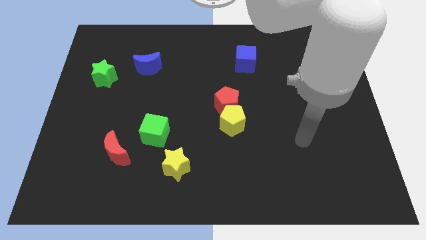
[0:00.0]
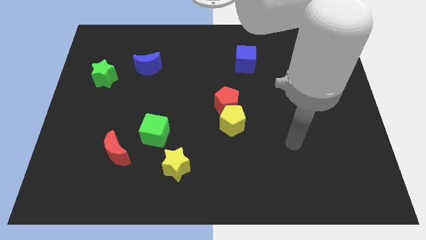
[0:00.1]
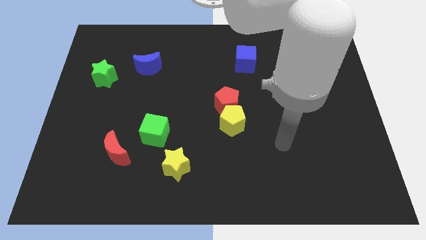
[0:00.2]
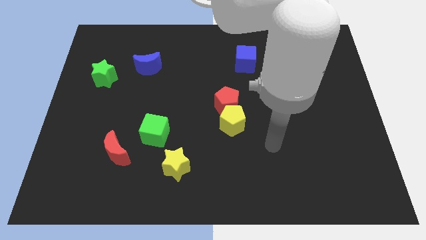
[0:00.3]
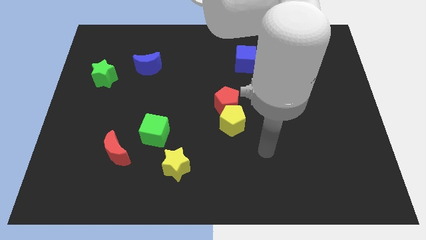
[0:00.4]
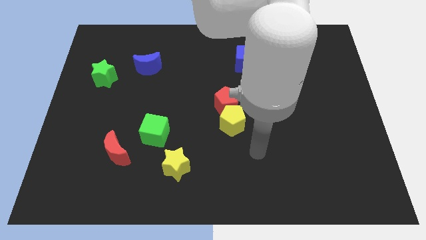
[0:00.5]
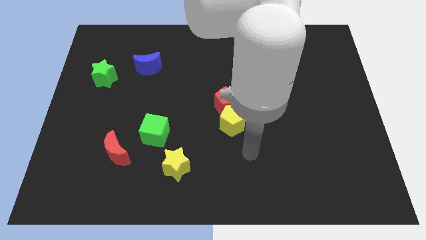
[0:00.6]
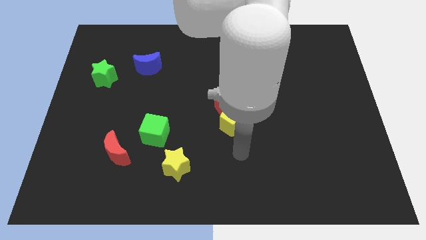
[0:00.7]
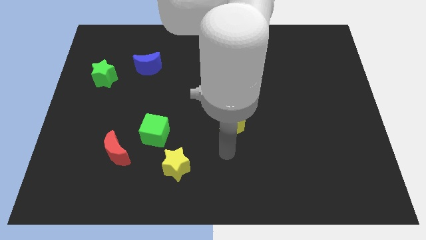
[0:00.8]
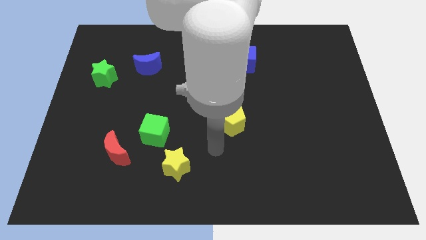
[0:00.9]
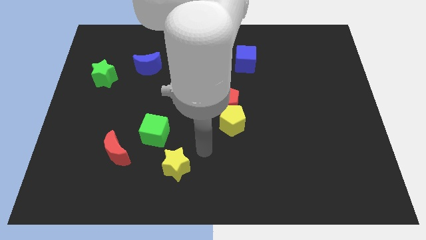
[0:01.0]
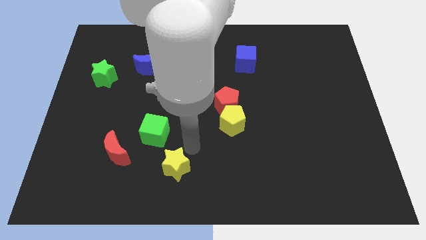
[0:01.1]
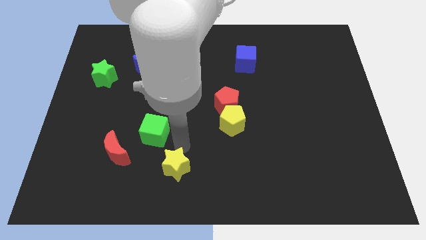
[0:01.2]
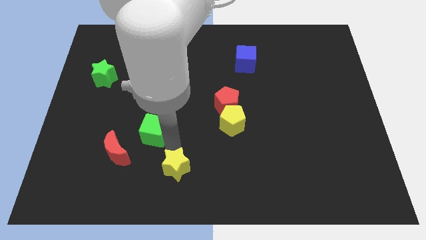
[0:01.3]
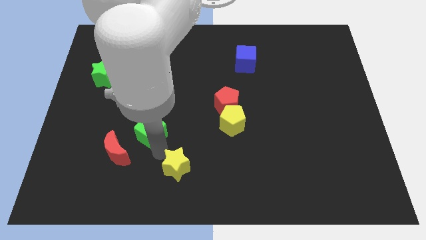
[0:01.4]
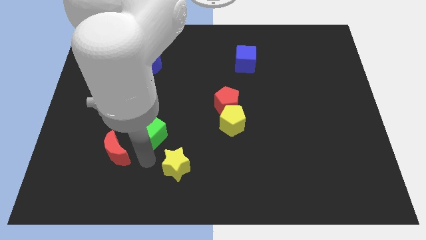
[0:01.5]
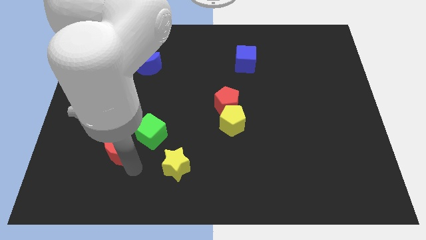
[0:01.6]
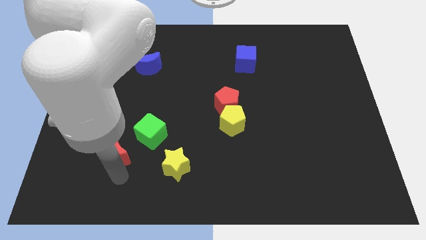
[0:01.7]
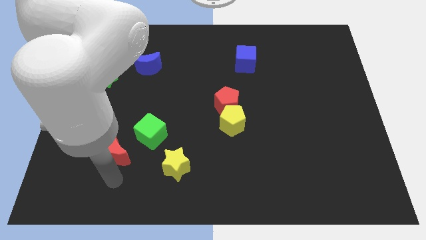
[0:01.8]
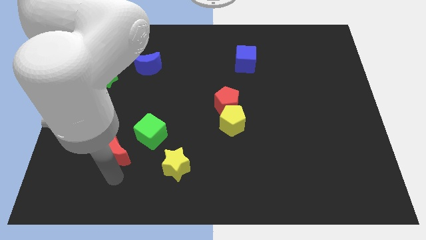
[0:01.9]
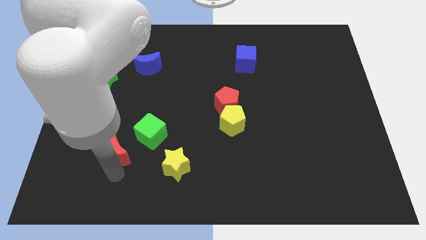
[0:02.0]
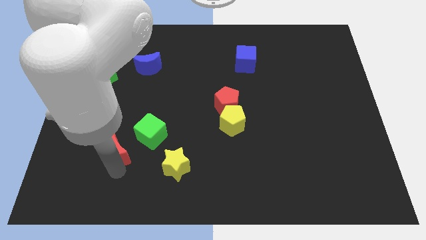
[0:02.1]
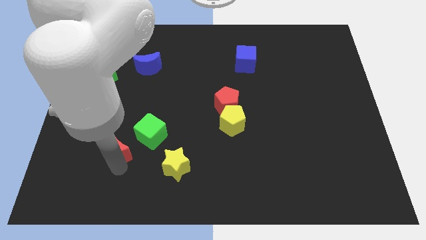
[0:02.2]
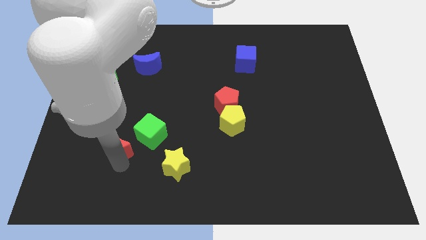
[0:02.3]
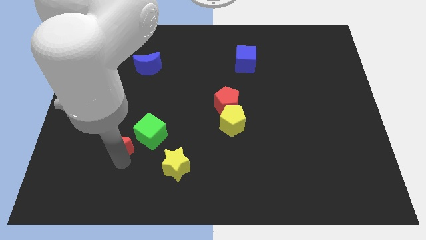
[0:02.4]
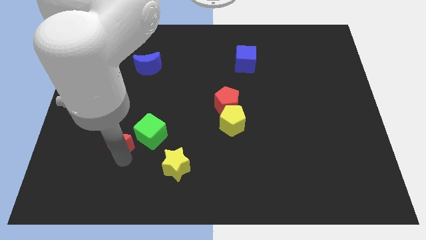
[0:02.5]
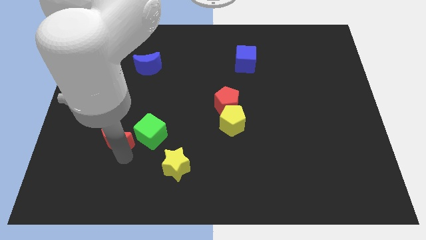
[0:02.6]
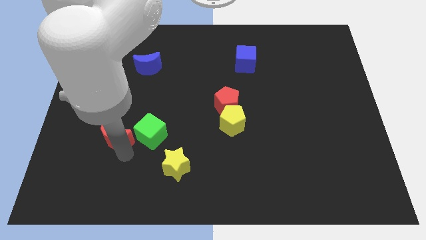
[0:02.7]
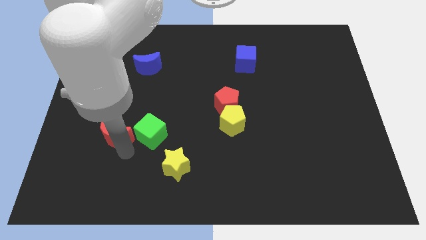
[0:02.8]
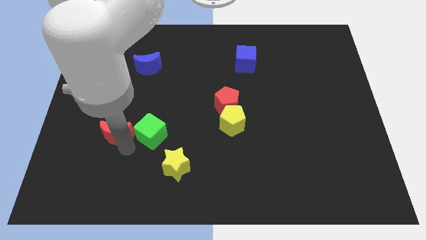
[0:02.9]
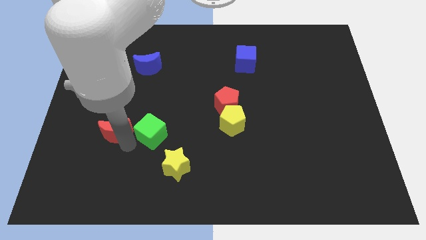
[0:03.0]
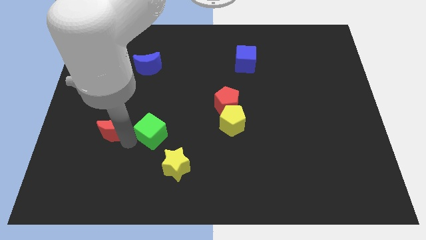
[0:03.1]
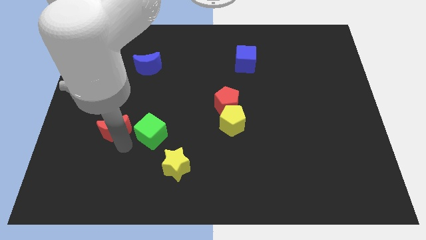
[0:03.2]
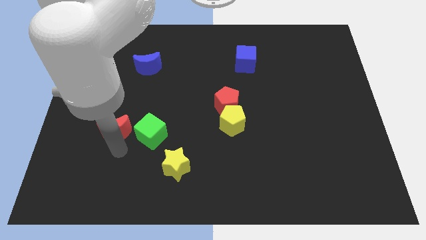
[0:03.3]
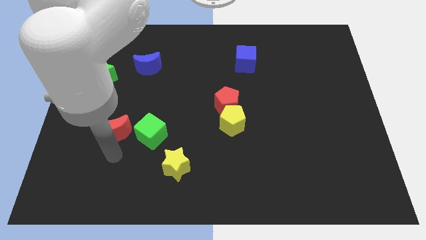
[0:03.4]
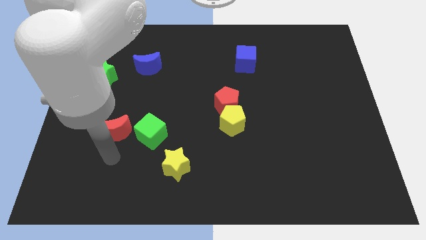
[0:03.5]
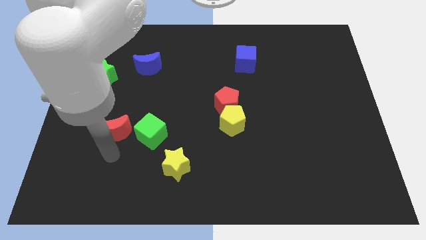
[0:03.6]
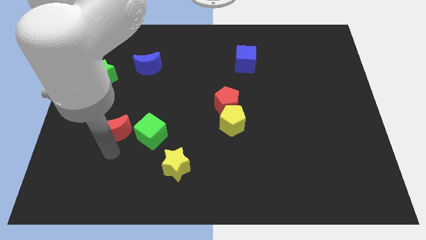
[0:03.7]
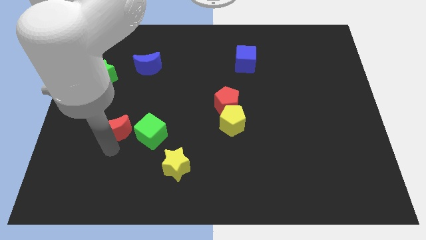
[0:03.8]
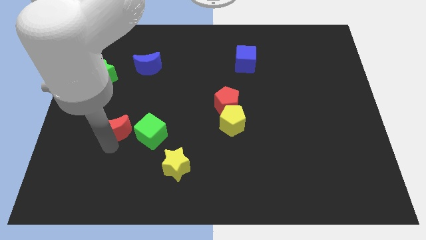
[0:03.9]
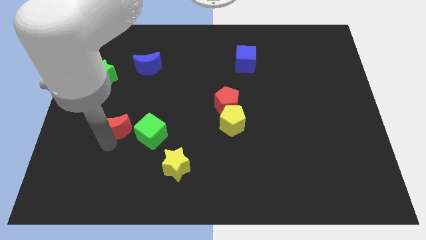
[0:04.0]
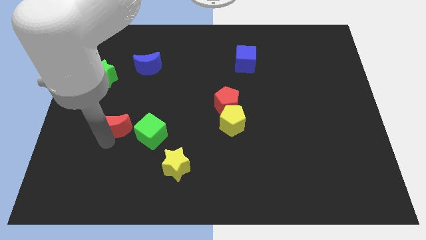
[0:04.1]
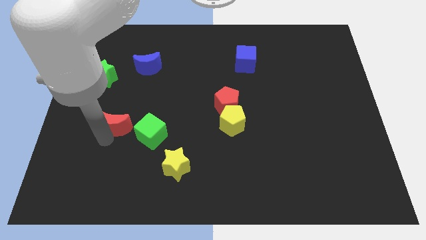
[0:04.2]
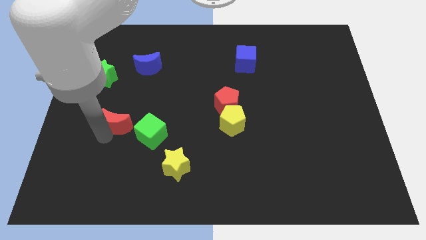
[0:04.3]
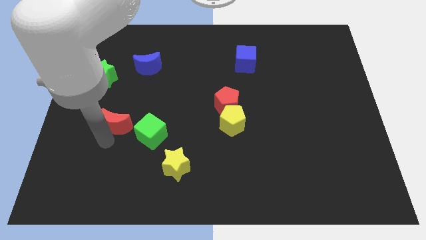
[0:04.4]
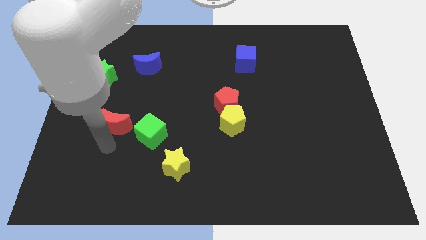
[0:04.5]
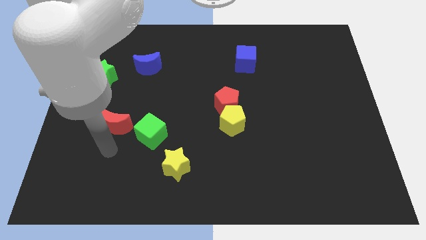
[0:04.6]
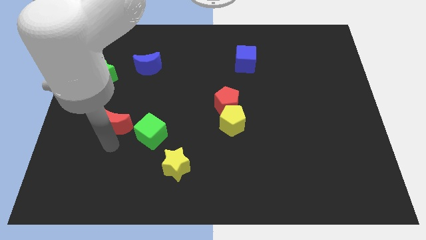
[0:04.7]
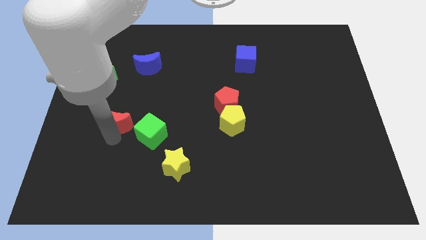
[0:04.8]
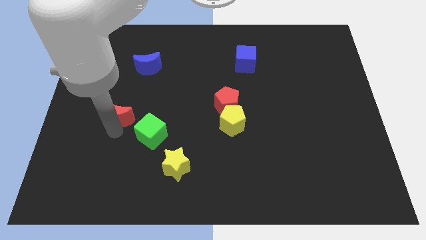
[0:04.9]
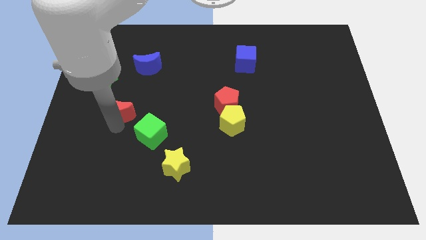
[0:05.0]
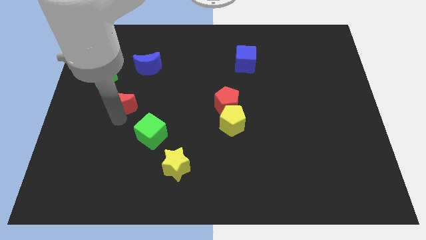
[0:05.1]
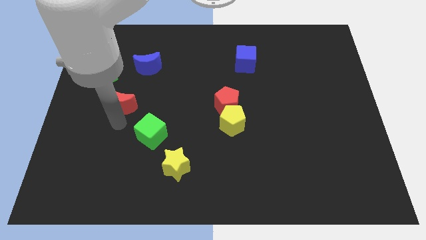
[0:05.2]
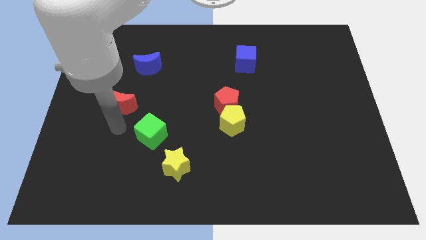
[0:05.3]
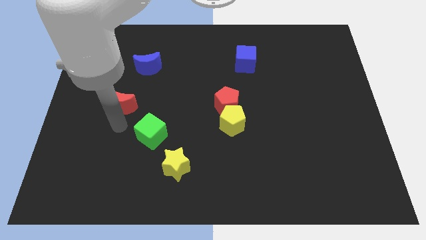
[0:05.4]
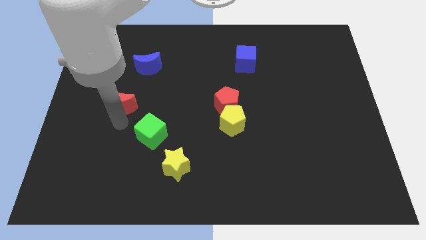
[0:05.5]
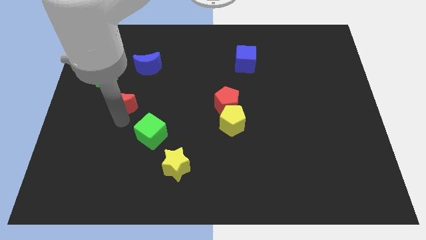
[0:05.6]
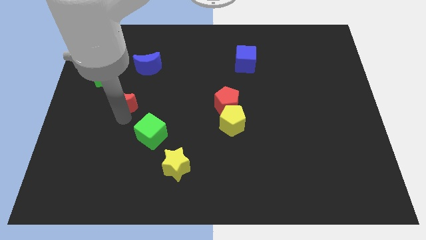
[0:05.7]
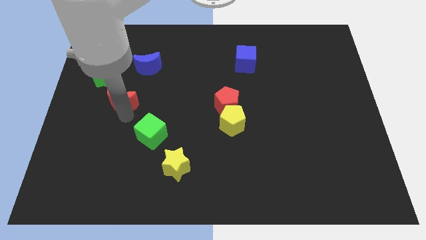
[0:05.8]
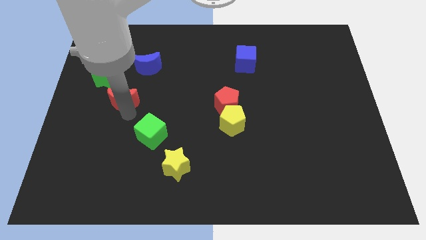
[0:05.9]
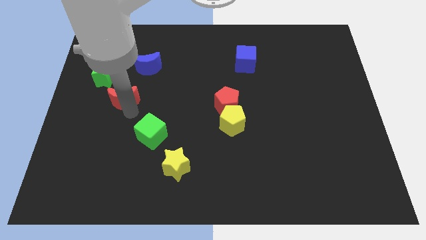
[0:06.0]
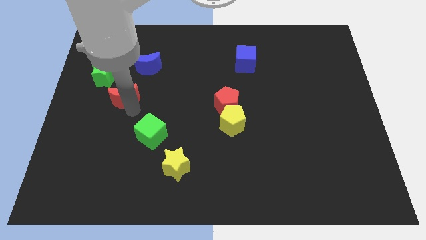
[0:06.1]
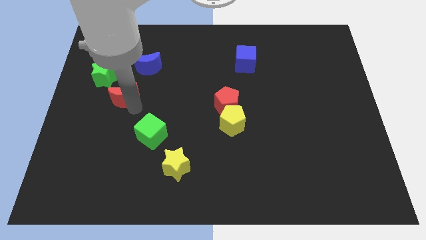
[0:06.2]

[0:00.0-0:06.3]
move the red moon diagonally down and to the left of the blue moon

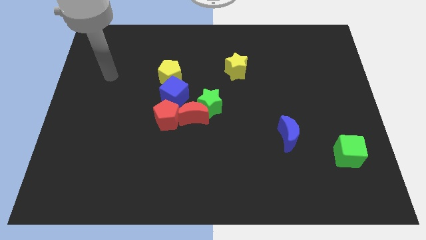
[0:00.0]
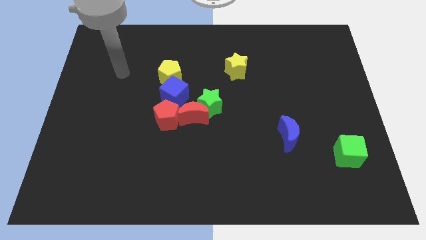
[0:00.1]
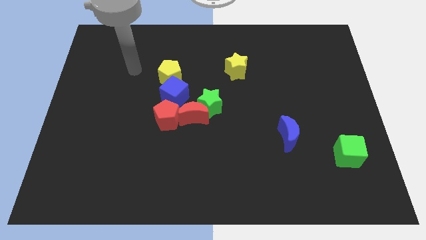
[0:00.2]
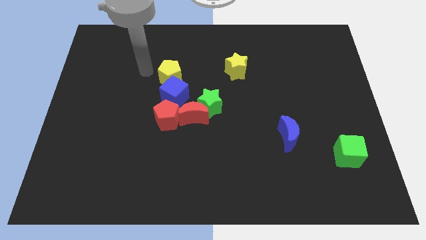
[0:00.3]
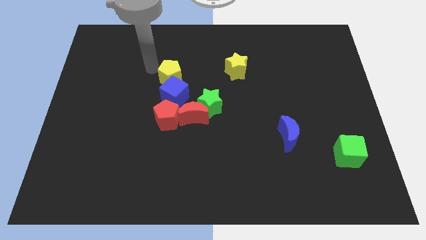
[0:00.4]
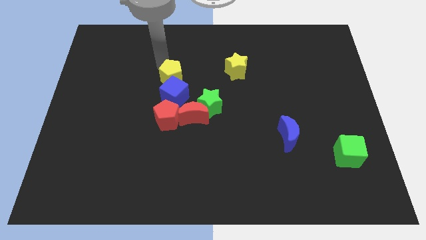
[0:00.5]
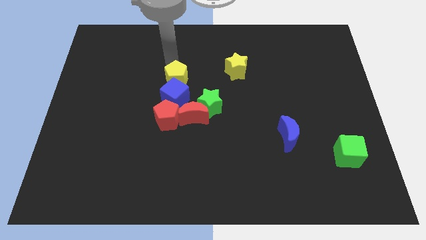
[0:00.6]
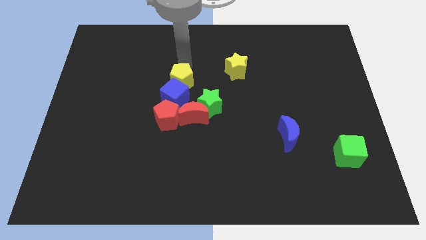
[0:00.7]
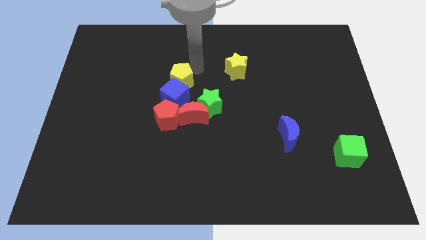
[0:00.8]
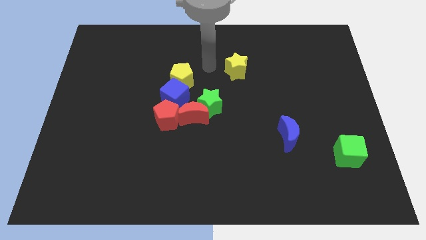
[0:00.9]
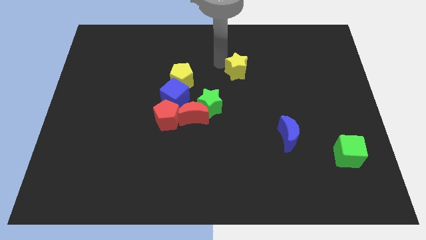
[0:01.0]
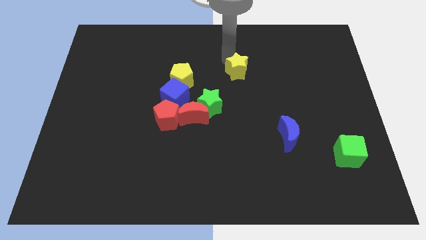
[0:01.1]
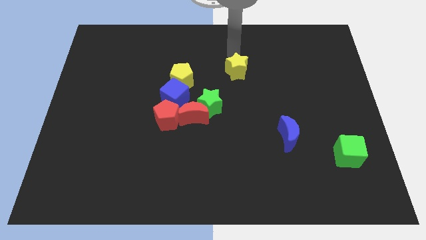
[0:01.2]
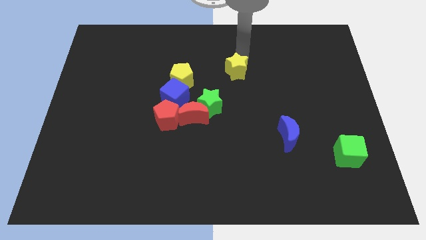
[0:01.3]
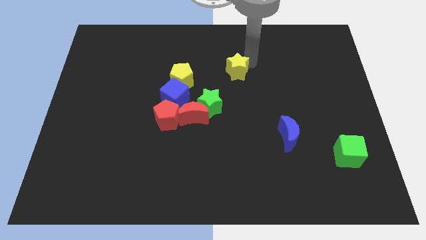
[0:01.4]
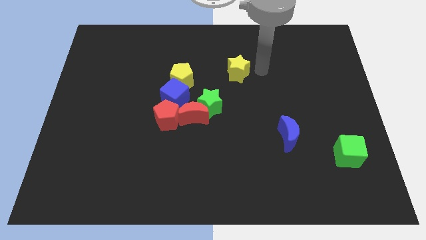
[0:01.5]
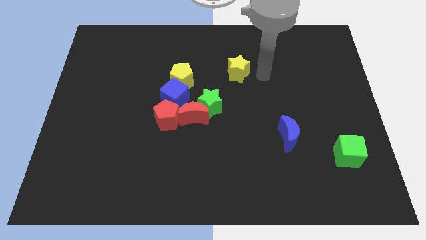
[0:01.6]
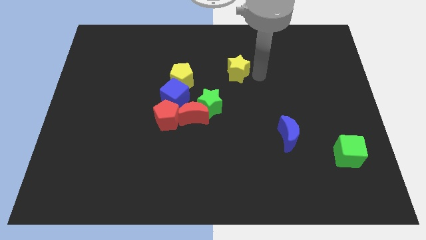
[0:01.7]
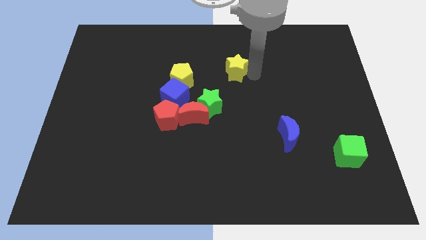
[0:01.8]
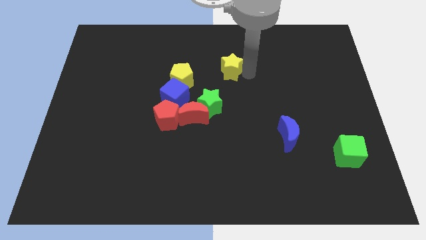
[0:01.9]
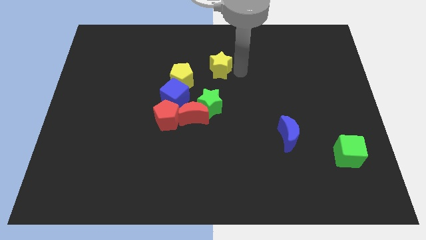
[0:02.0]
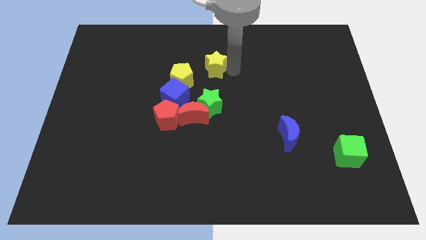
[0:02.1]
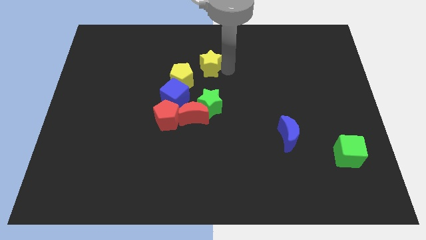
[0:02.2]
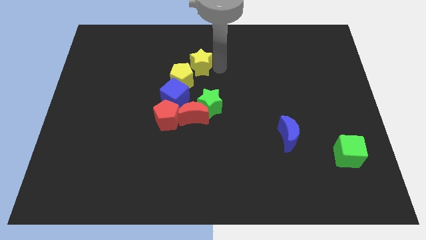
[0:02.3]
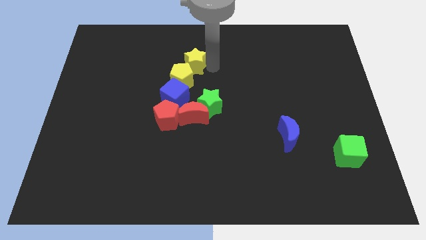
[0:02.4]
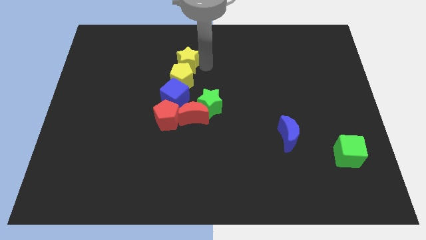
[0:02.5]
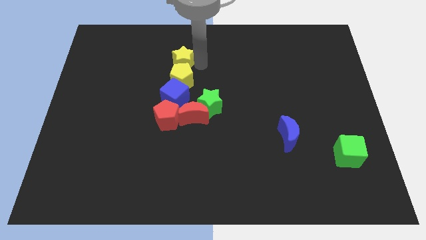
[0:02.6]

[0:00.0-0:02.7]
put the yellow star to the top left of the yellow pentagon
